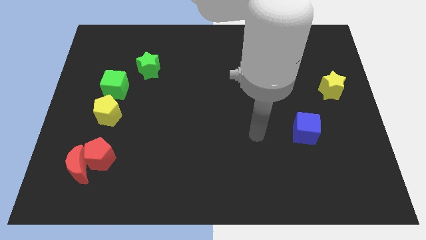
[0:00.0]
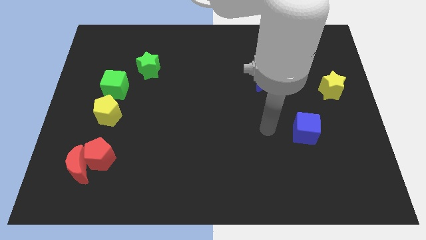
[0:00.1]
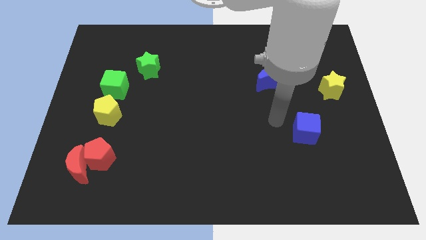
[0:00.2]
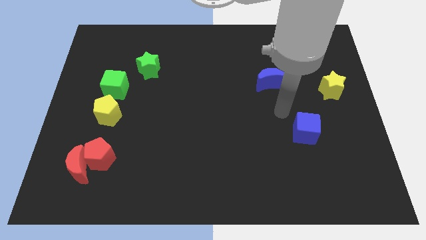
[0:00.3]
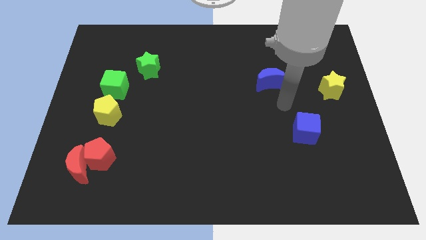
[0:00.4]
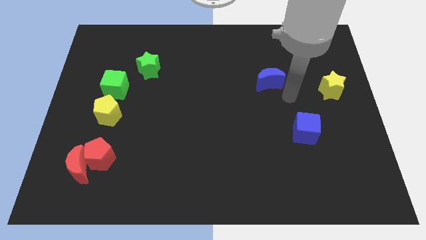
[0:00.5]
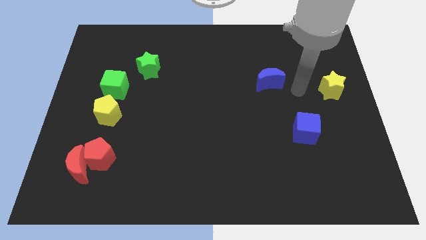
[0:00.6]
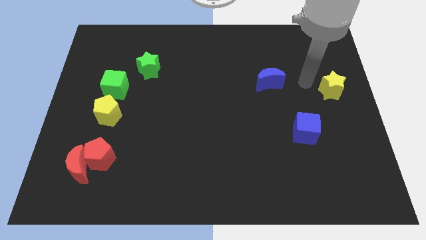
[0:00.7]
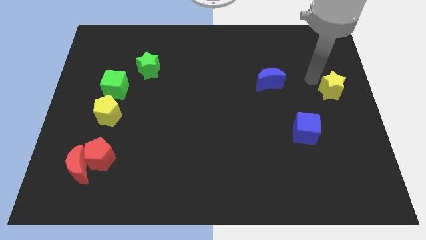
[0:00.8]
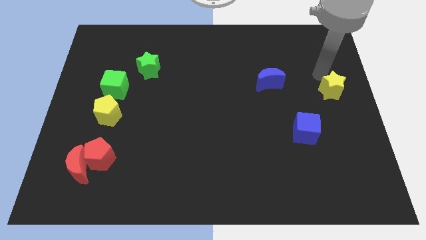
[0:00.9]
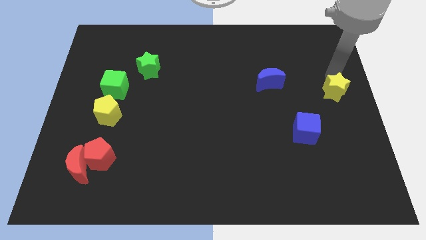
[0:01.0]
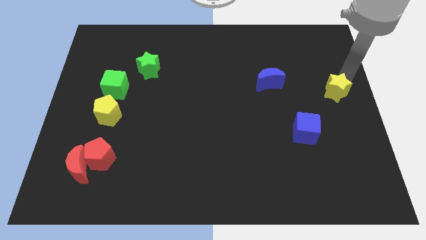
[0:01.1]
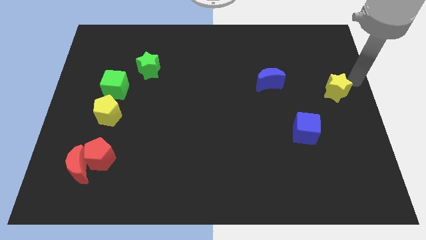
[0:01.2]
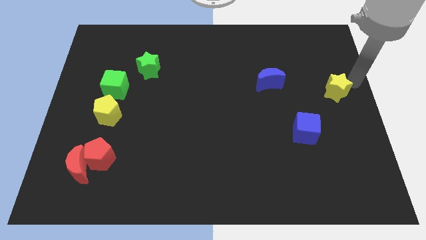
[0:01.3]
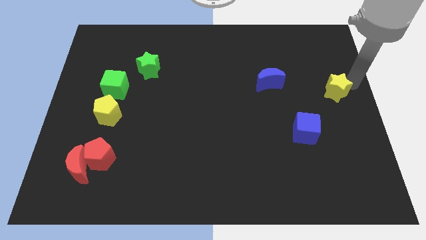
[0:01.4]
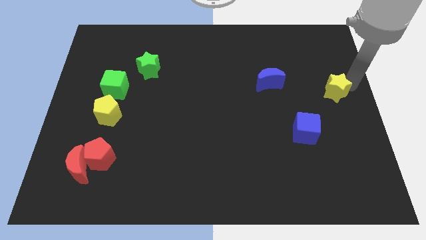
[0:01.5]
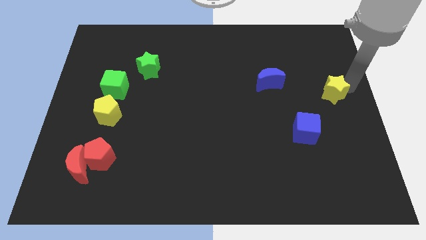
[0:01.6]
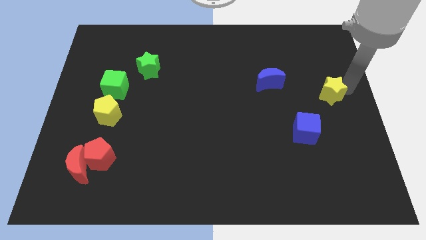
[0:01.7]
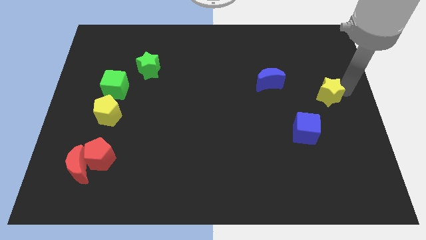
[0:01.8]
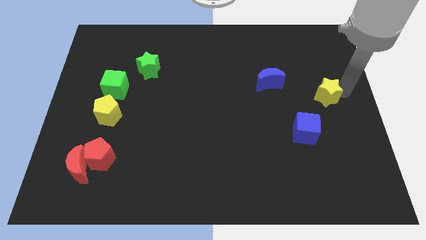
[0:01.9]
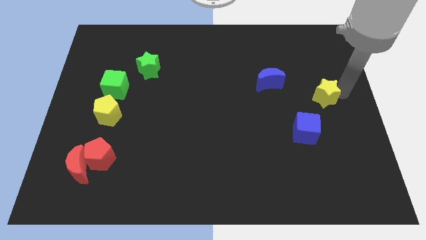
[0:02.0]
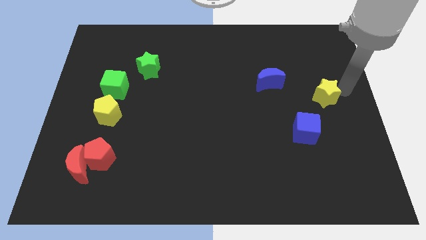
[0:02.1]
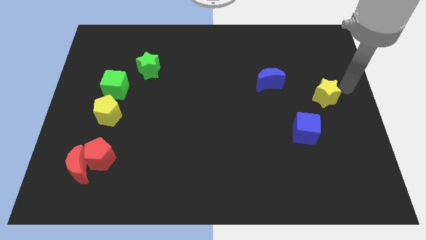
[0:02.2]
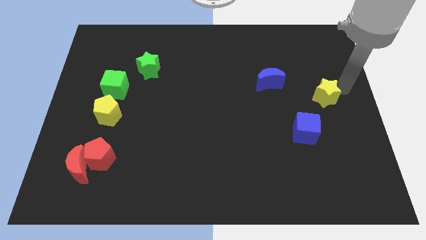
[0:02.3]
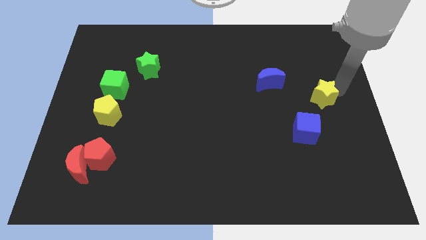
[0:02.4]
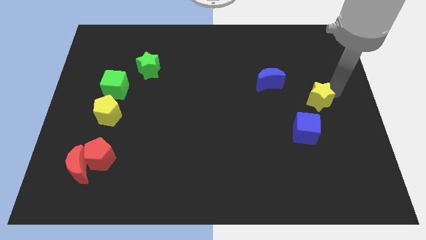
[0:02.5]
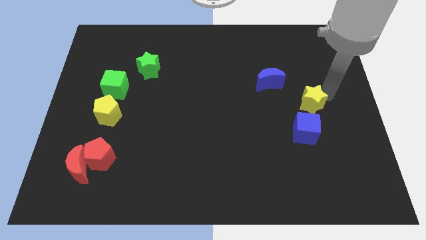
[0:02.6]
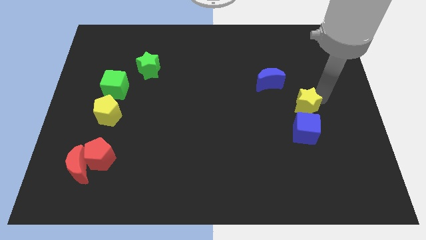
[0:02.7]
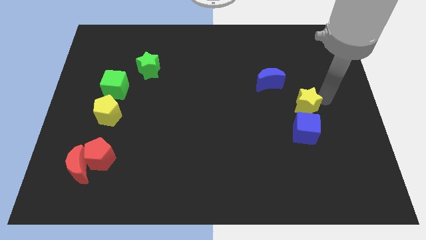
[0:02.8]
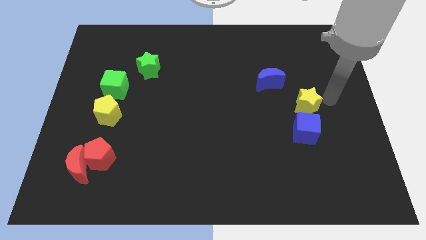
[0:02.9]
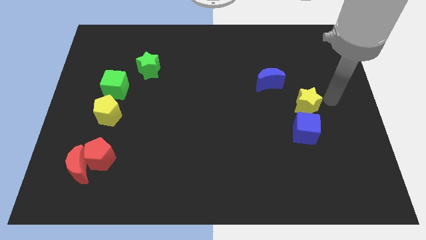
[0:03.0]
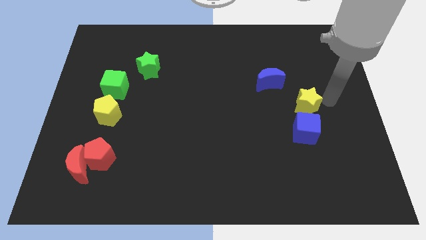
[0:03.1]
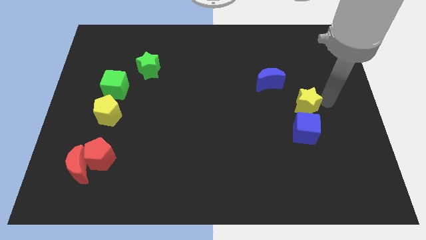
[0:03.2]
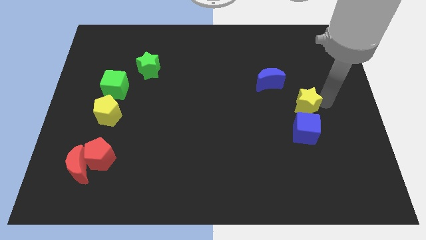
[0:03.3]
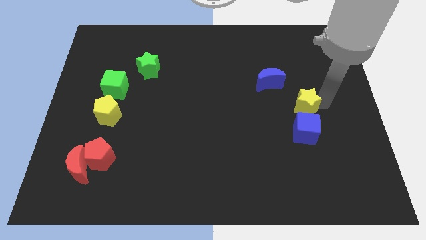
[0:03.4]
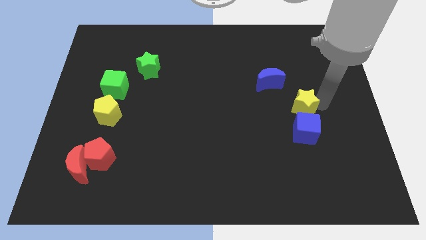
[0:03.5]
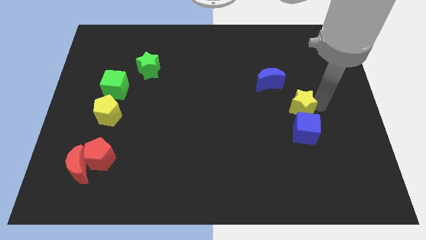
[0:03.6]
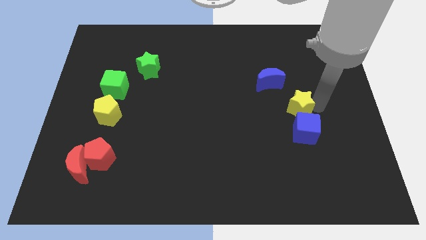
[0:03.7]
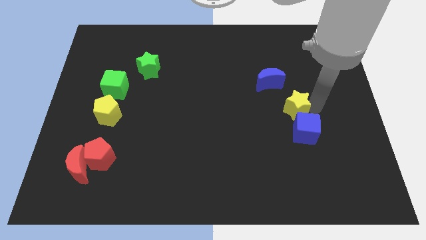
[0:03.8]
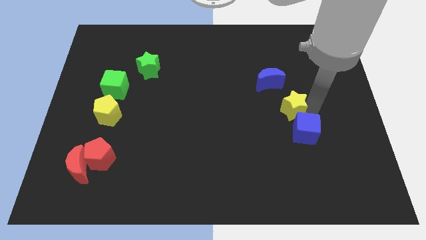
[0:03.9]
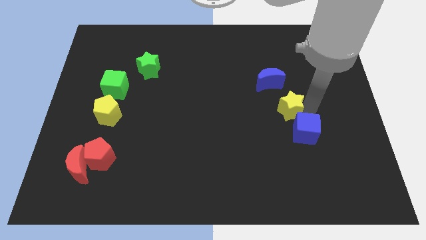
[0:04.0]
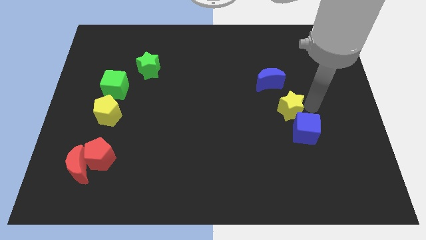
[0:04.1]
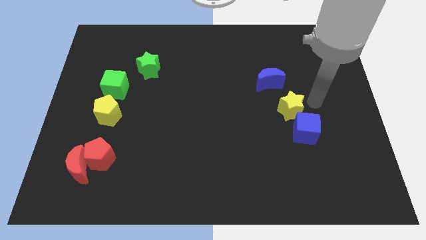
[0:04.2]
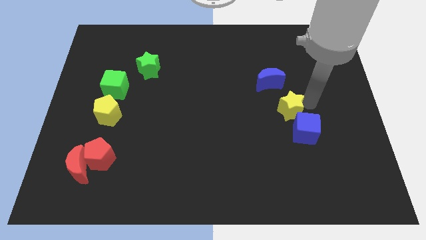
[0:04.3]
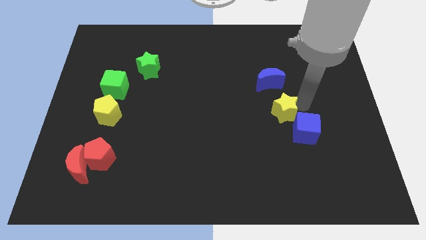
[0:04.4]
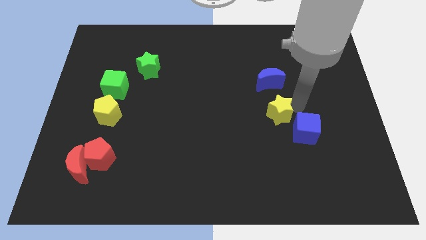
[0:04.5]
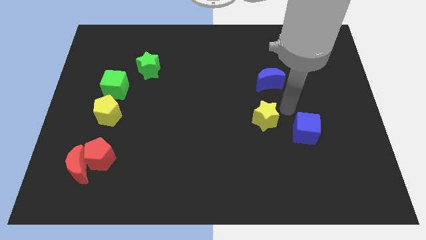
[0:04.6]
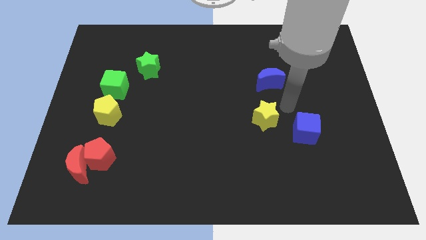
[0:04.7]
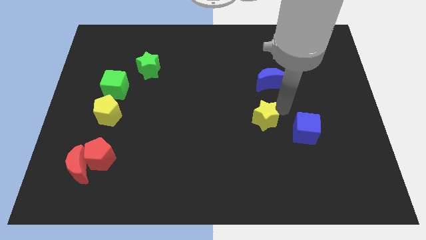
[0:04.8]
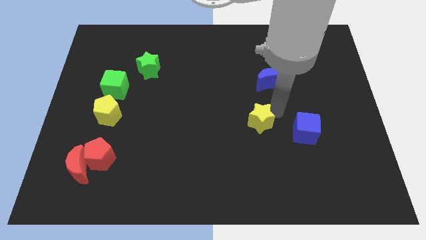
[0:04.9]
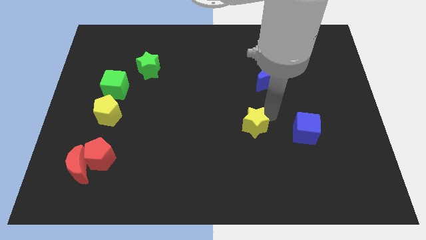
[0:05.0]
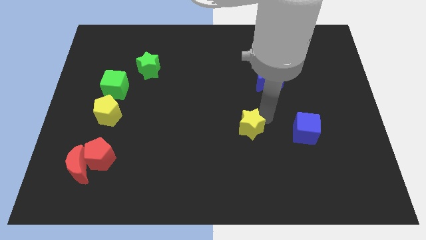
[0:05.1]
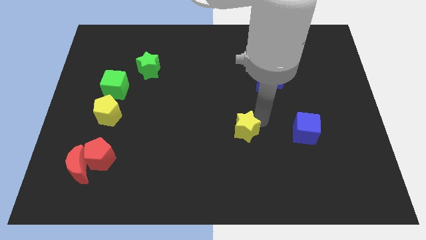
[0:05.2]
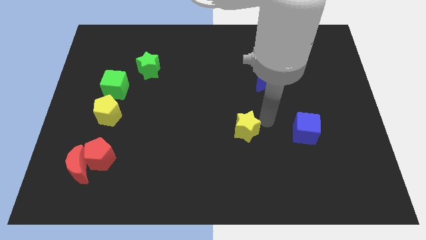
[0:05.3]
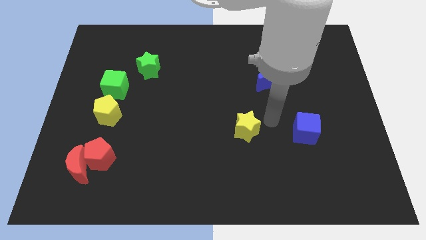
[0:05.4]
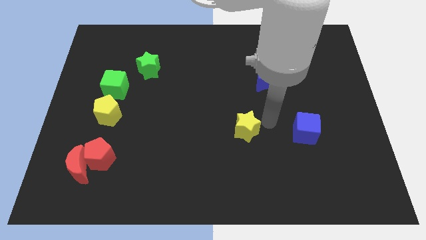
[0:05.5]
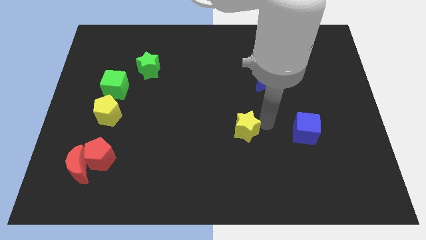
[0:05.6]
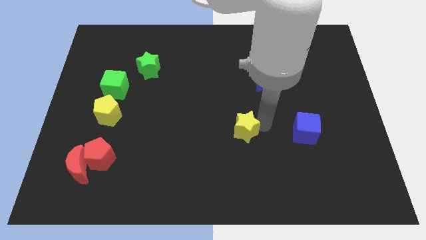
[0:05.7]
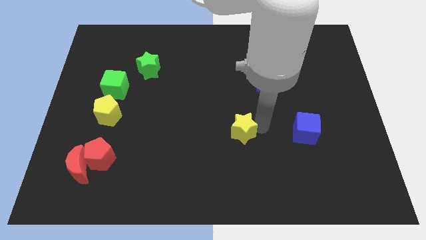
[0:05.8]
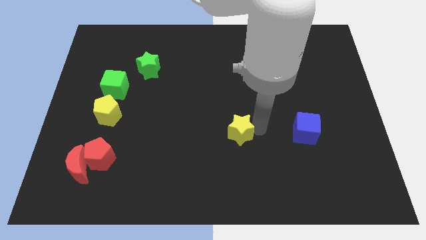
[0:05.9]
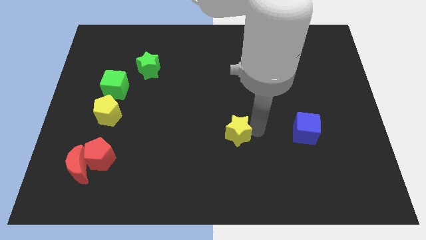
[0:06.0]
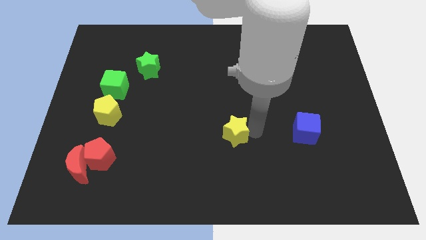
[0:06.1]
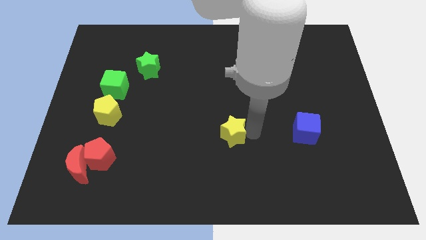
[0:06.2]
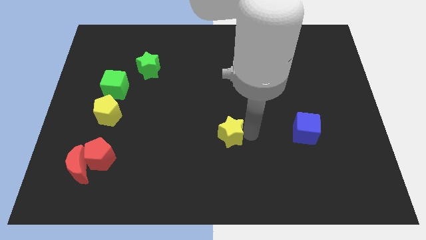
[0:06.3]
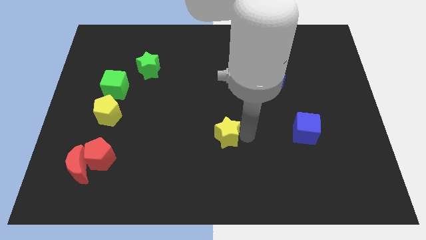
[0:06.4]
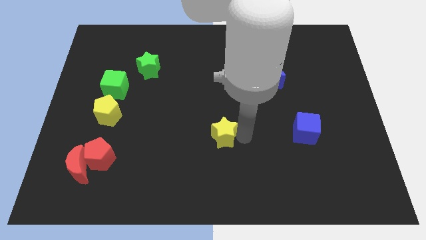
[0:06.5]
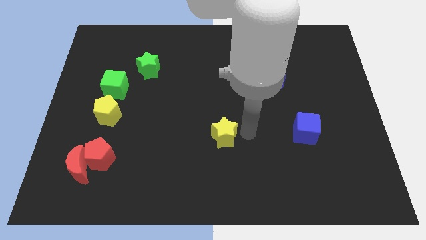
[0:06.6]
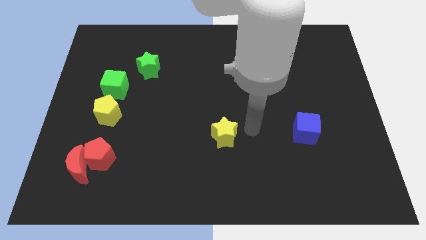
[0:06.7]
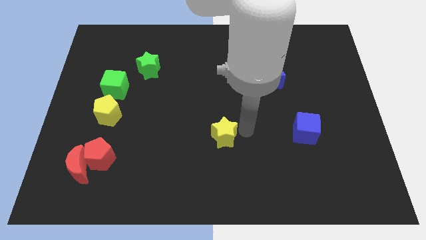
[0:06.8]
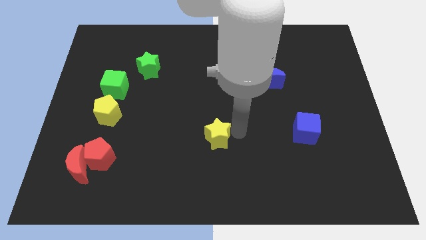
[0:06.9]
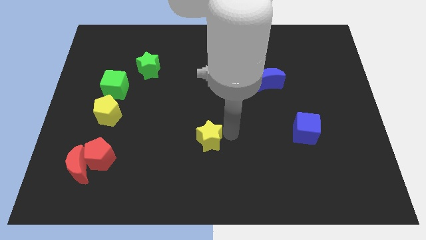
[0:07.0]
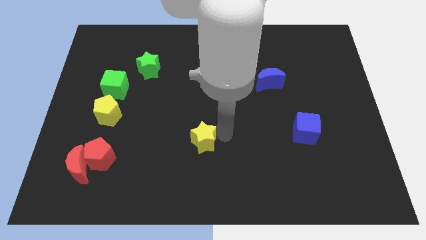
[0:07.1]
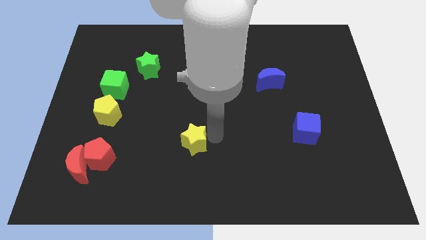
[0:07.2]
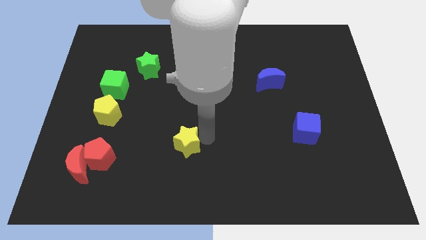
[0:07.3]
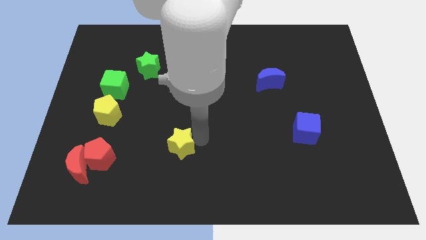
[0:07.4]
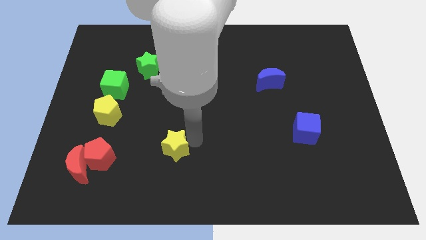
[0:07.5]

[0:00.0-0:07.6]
move the yellow star to the right of the red pentagon
